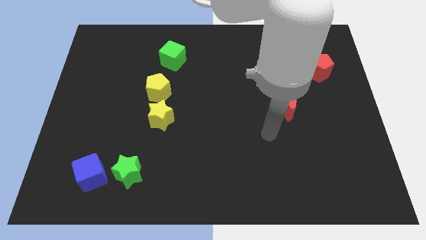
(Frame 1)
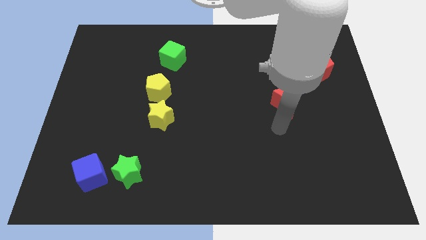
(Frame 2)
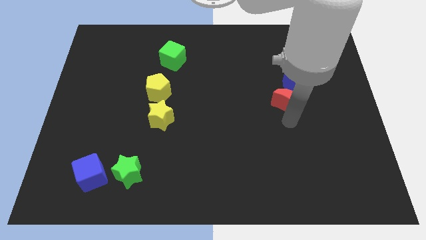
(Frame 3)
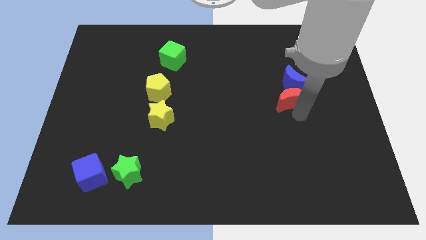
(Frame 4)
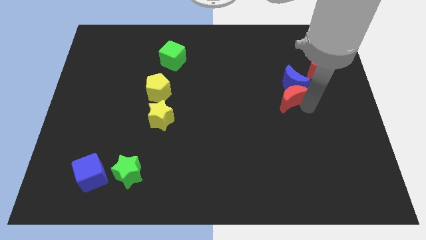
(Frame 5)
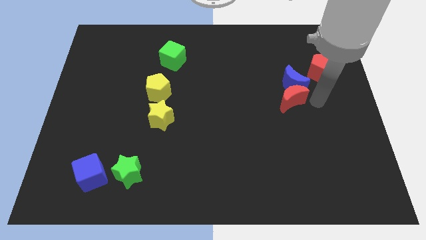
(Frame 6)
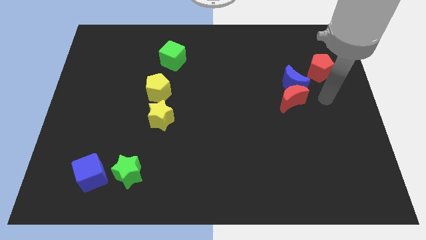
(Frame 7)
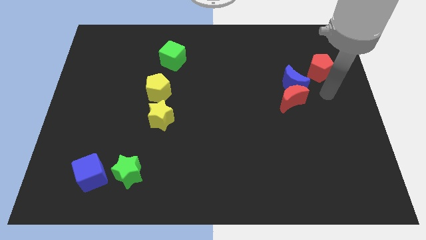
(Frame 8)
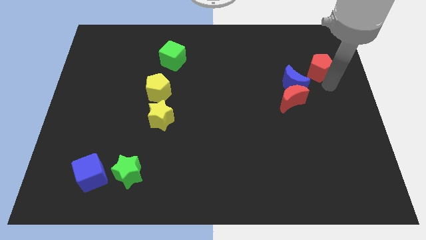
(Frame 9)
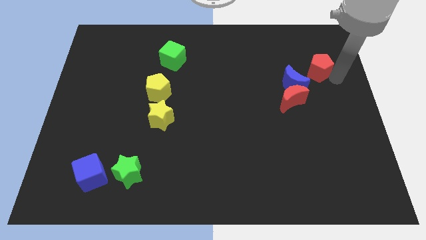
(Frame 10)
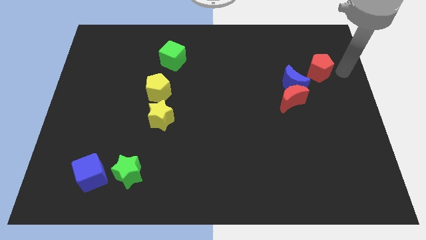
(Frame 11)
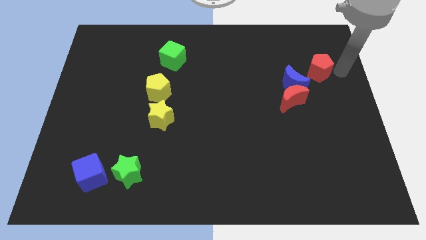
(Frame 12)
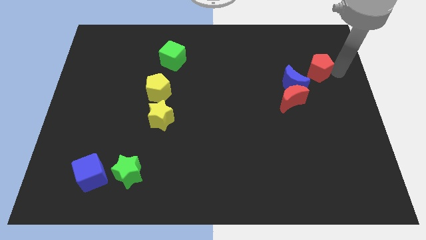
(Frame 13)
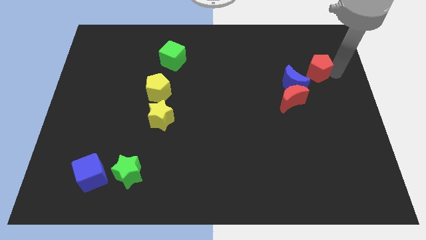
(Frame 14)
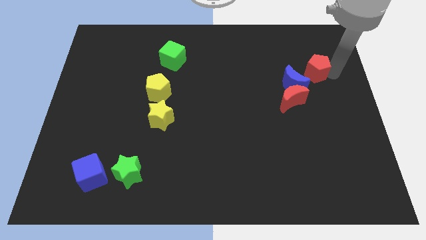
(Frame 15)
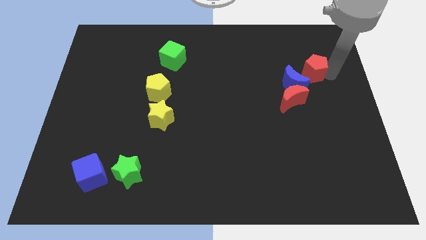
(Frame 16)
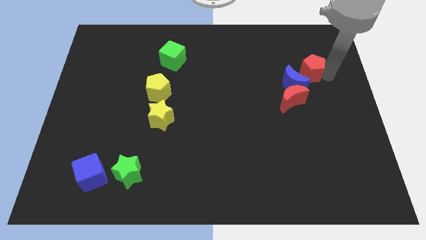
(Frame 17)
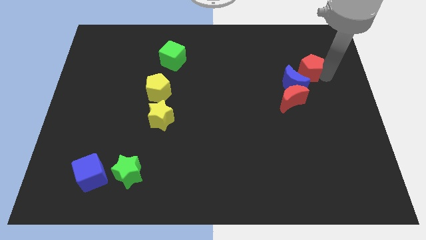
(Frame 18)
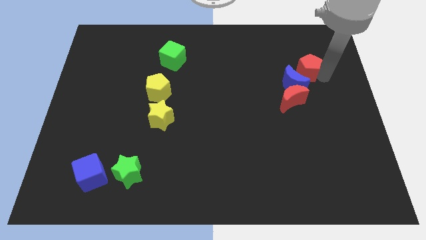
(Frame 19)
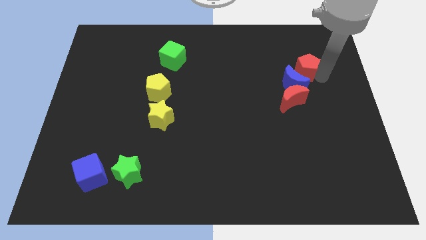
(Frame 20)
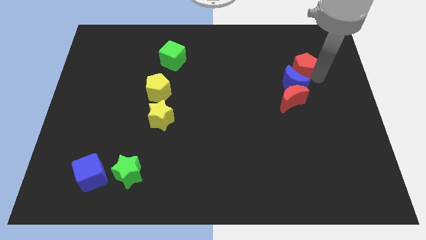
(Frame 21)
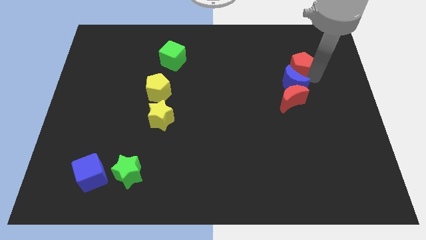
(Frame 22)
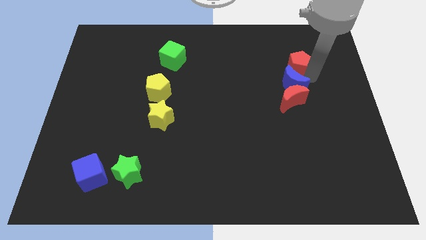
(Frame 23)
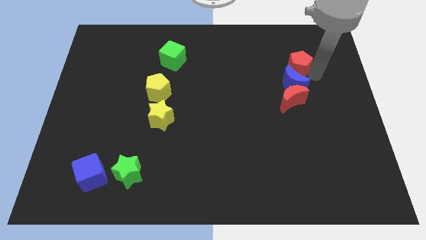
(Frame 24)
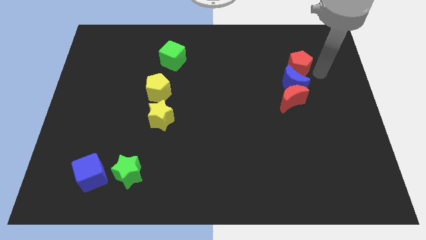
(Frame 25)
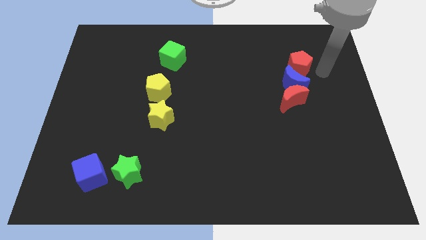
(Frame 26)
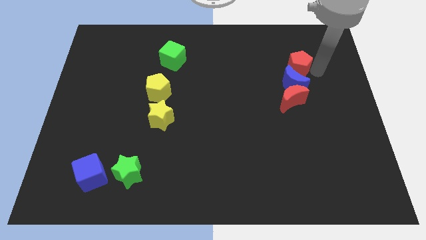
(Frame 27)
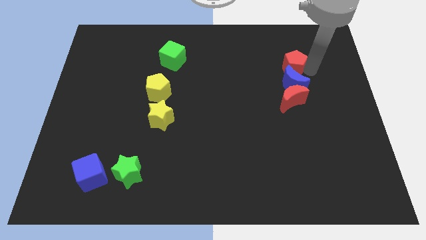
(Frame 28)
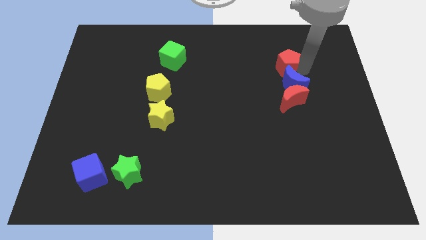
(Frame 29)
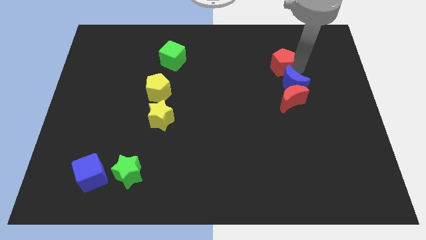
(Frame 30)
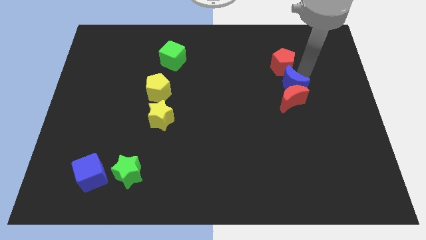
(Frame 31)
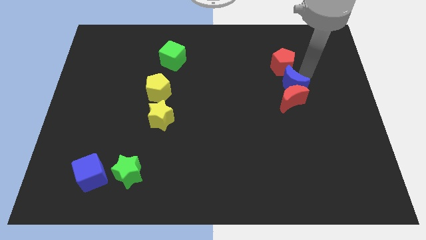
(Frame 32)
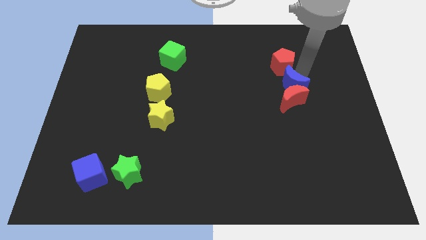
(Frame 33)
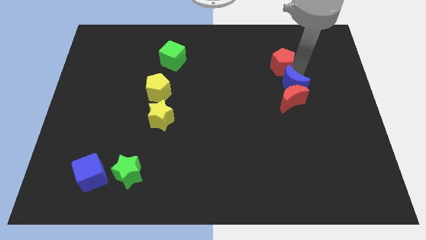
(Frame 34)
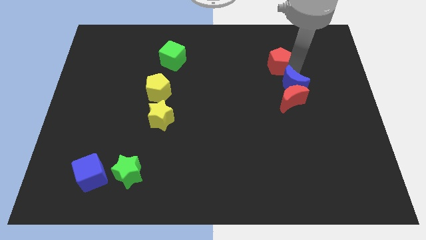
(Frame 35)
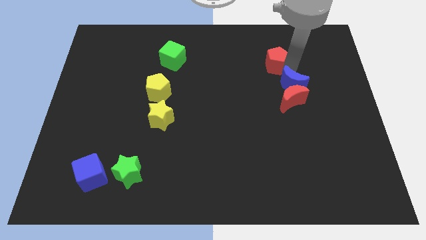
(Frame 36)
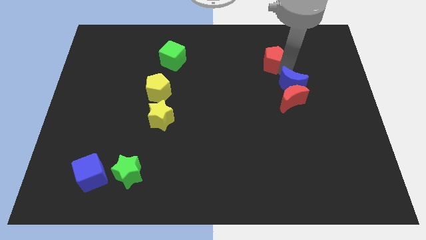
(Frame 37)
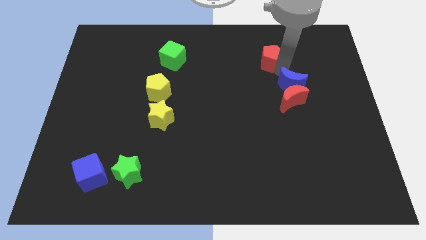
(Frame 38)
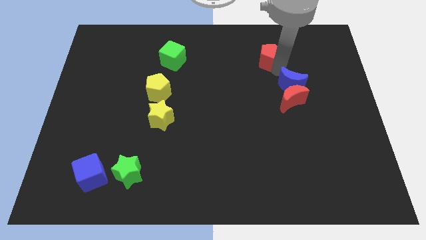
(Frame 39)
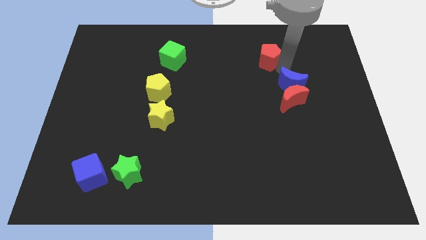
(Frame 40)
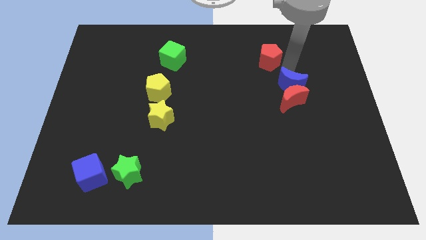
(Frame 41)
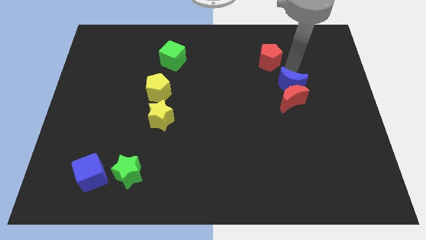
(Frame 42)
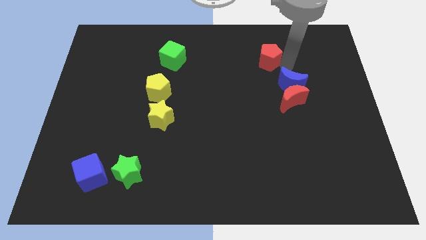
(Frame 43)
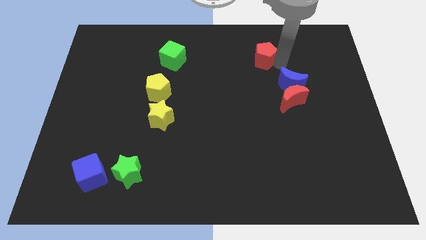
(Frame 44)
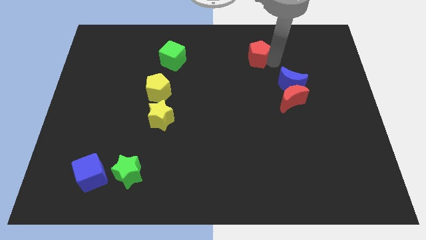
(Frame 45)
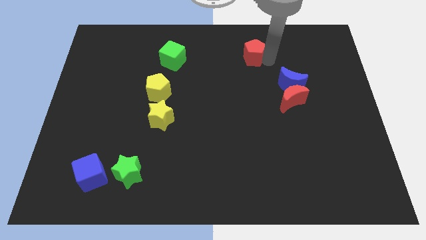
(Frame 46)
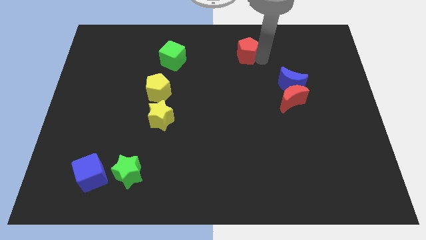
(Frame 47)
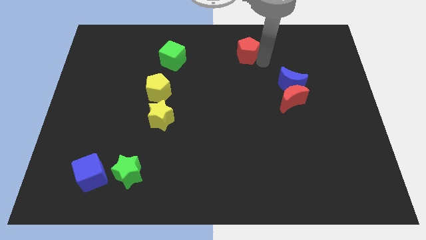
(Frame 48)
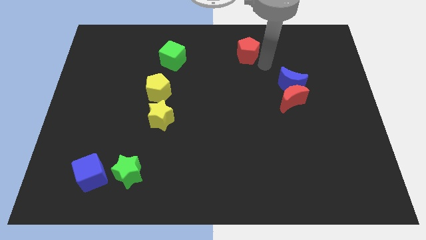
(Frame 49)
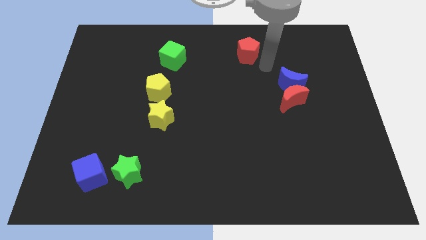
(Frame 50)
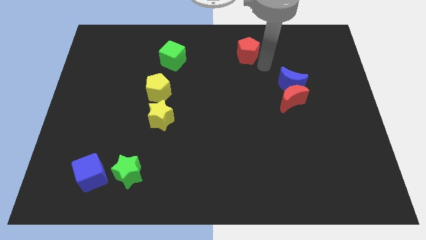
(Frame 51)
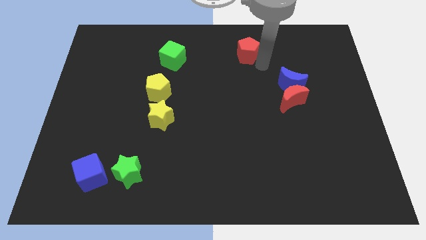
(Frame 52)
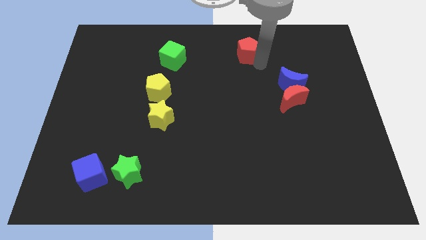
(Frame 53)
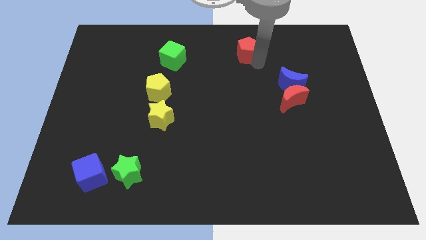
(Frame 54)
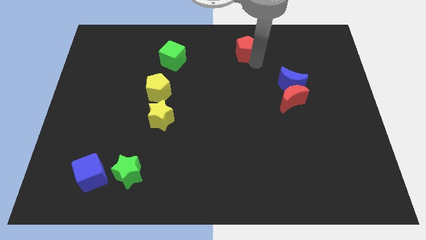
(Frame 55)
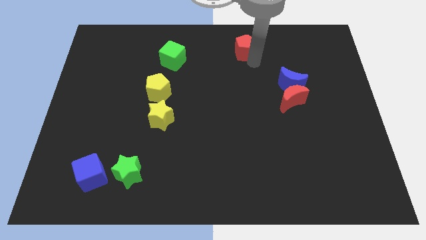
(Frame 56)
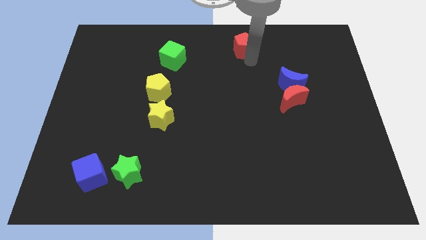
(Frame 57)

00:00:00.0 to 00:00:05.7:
move the red pentagon to the towards your base
